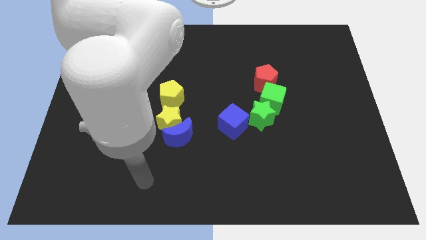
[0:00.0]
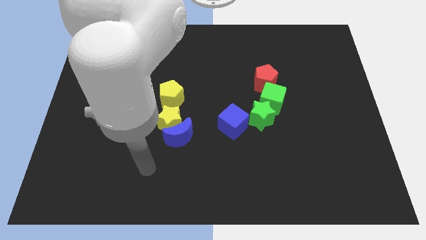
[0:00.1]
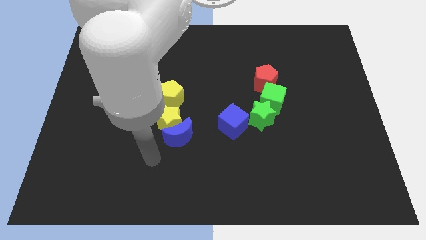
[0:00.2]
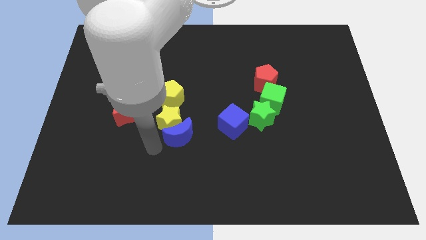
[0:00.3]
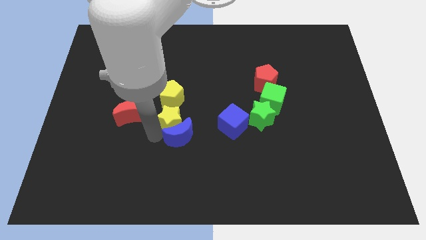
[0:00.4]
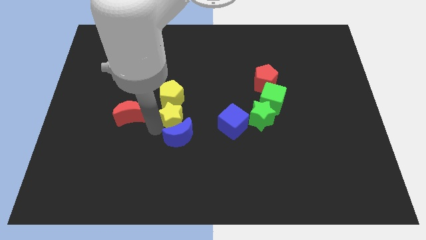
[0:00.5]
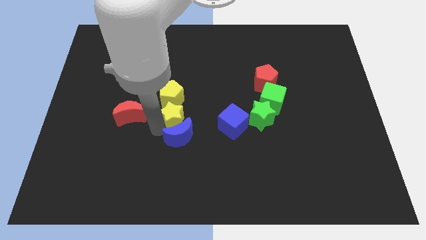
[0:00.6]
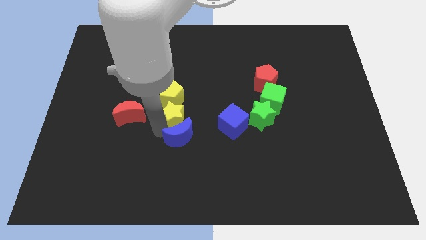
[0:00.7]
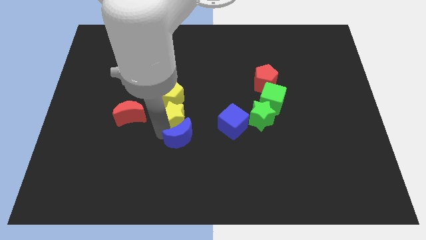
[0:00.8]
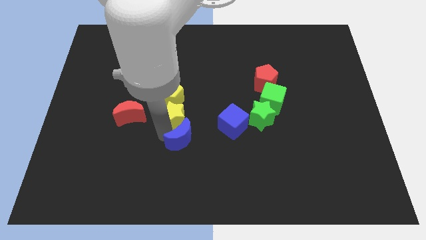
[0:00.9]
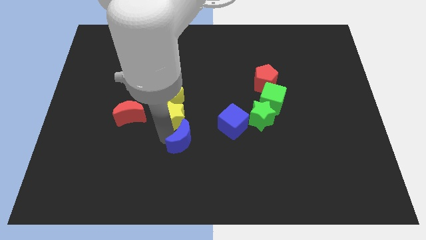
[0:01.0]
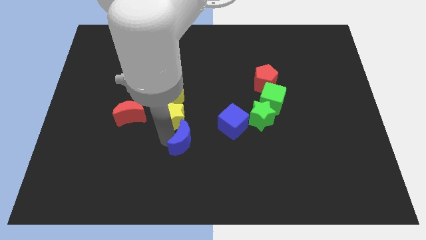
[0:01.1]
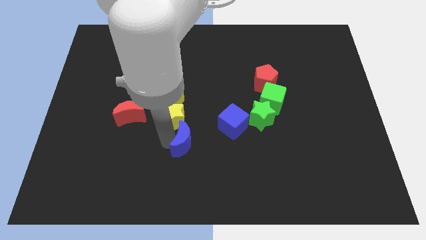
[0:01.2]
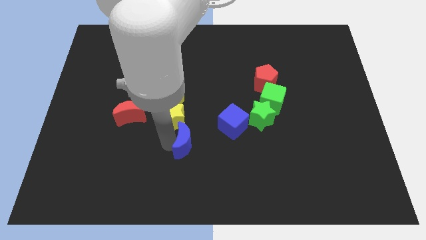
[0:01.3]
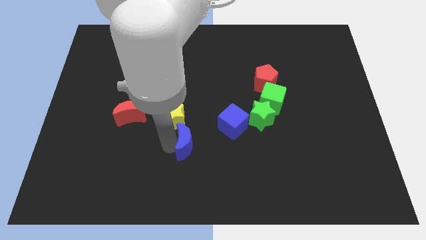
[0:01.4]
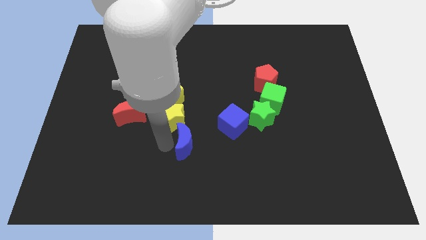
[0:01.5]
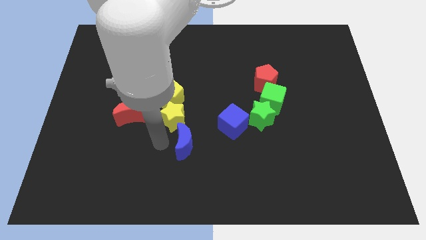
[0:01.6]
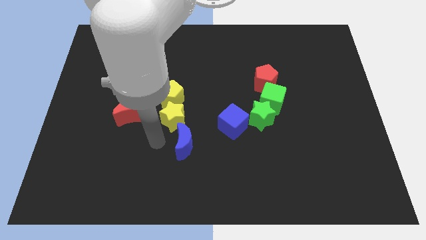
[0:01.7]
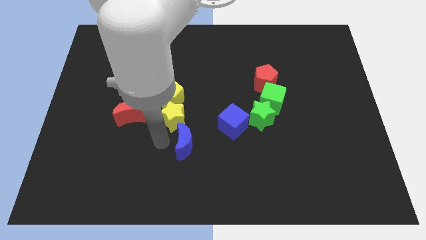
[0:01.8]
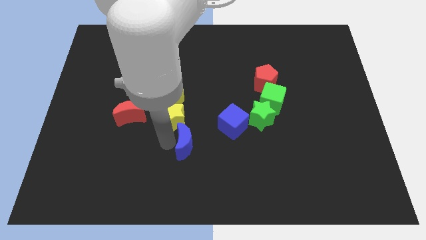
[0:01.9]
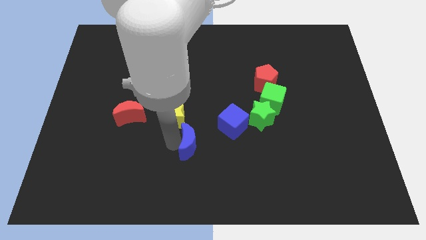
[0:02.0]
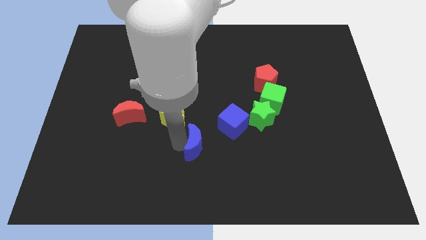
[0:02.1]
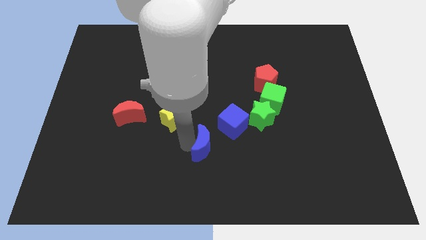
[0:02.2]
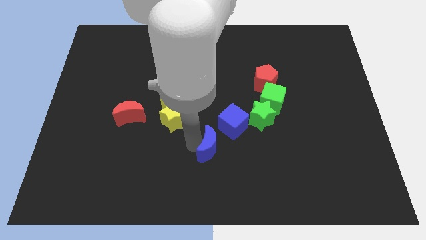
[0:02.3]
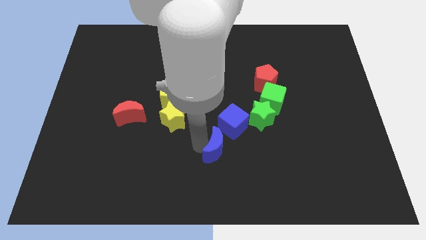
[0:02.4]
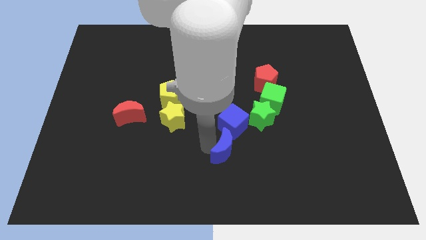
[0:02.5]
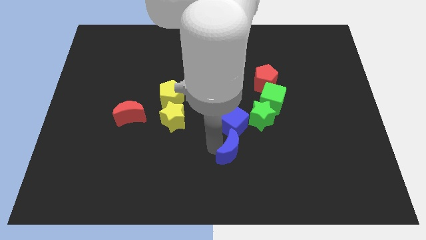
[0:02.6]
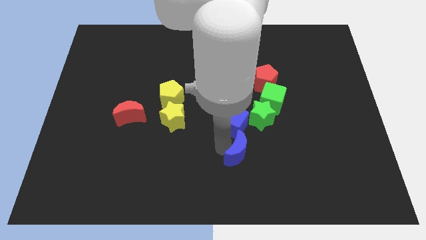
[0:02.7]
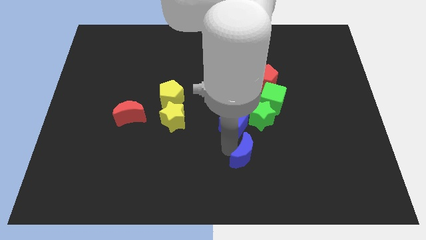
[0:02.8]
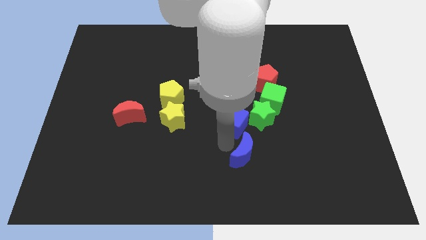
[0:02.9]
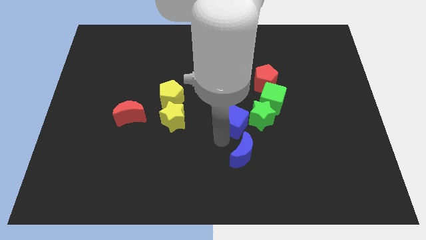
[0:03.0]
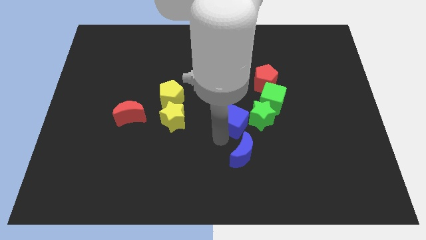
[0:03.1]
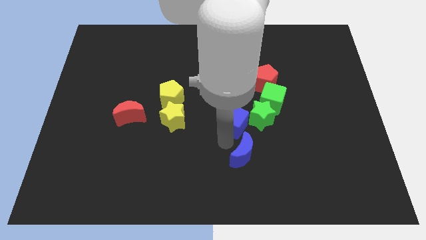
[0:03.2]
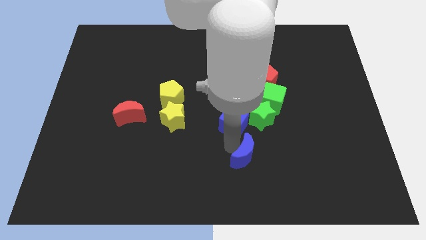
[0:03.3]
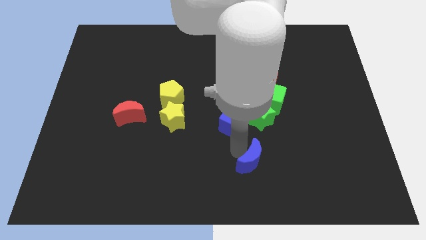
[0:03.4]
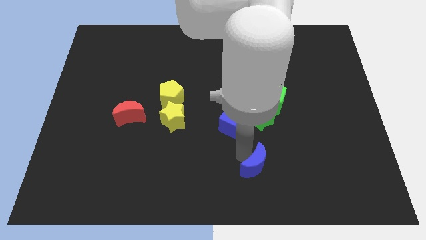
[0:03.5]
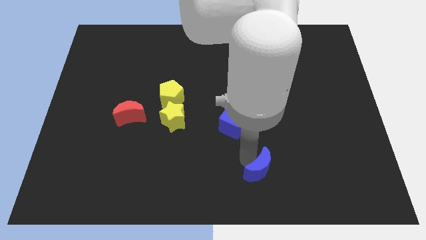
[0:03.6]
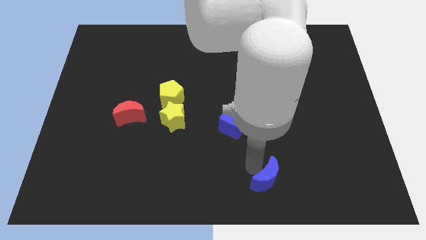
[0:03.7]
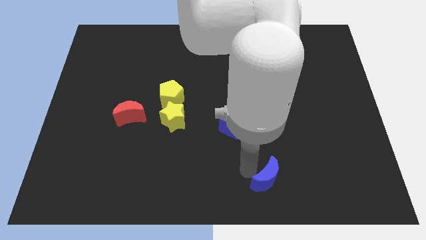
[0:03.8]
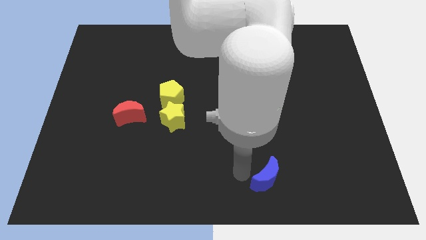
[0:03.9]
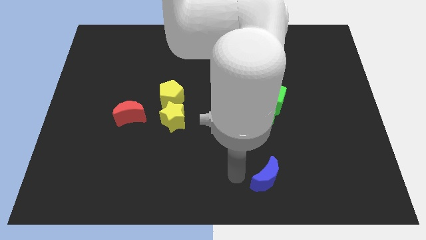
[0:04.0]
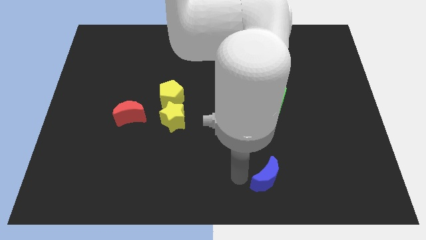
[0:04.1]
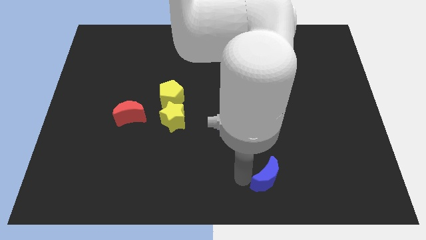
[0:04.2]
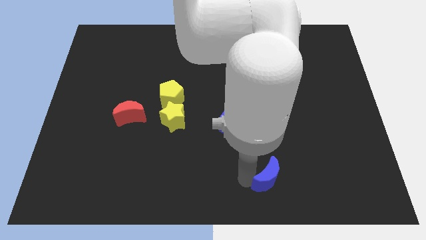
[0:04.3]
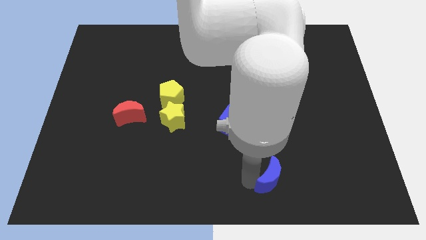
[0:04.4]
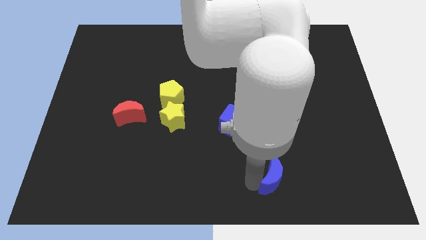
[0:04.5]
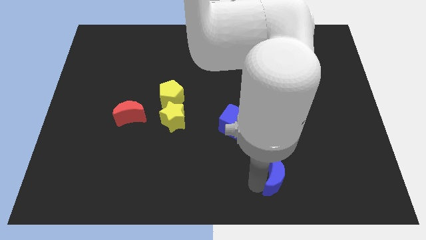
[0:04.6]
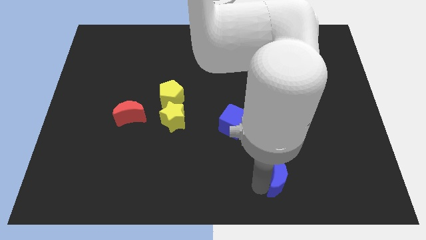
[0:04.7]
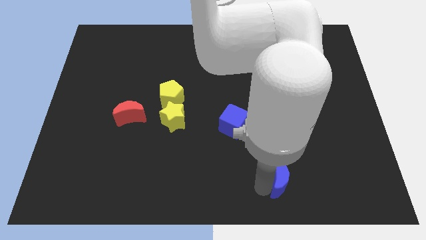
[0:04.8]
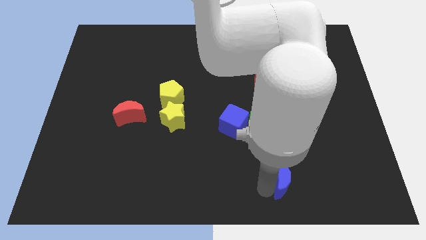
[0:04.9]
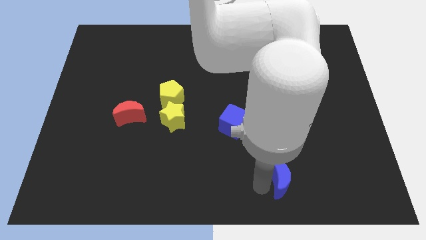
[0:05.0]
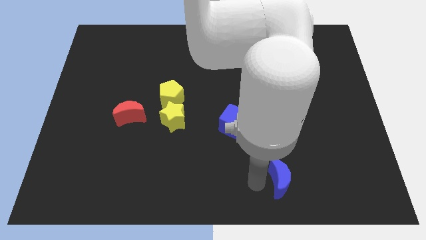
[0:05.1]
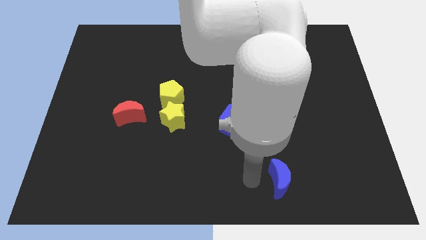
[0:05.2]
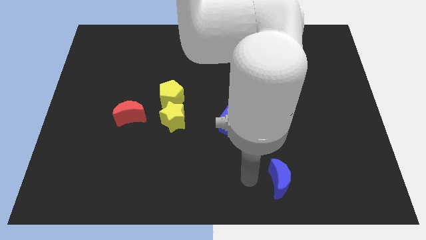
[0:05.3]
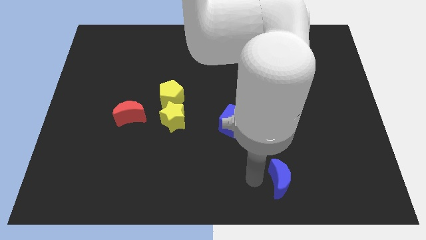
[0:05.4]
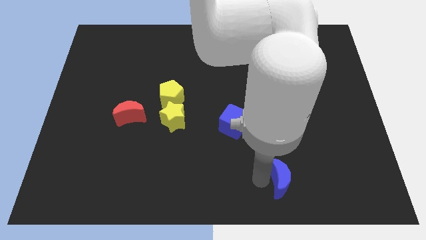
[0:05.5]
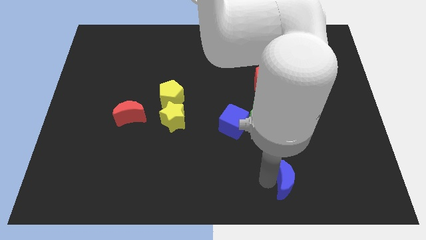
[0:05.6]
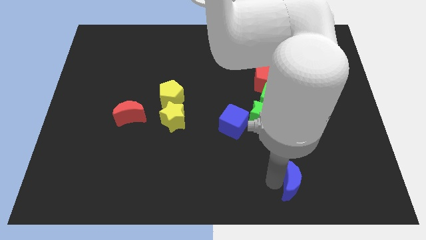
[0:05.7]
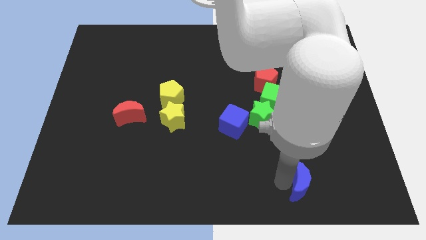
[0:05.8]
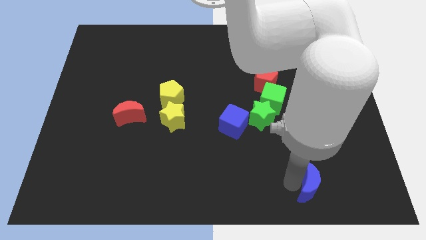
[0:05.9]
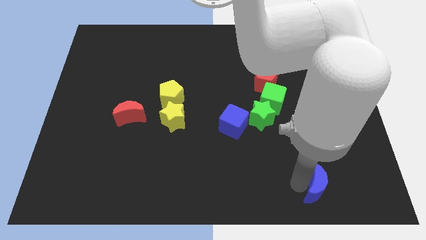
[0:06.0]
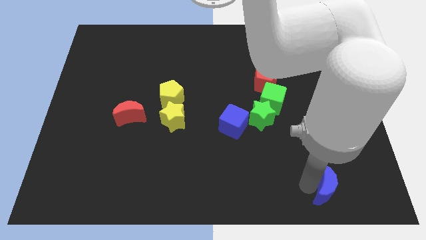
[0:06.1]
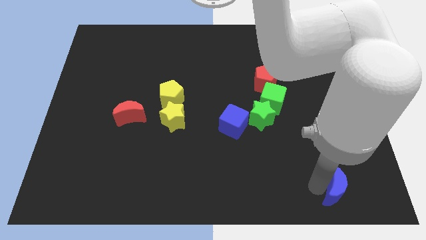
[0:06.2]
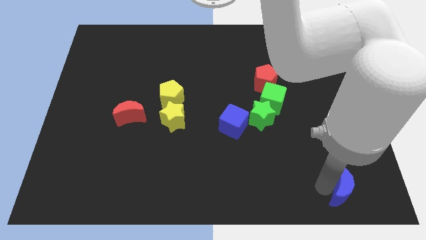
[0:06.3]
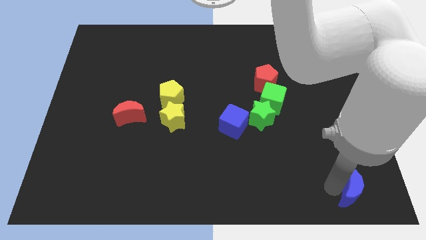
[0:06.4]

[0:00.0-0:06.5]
push the blue moon to the bottom right of the board
